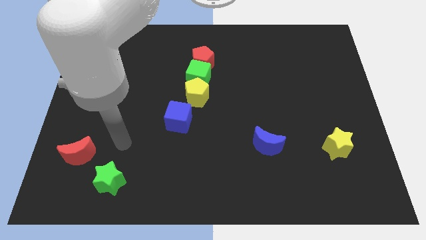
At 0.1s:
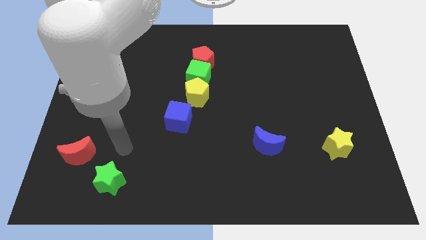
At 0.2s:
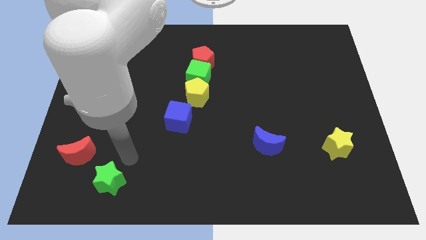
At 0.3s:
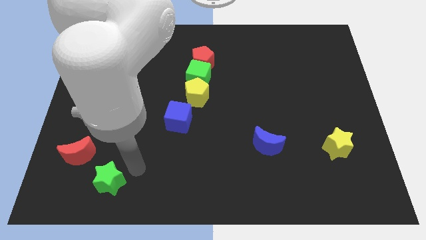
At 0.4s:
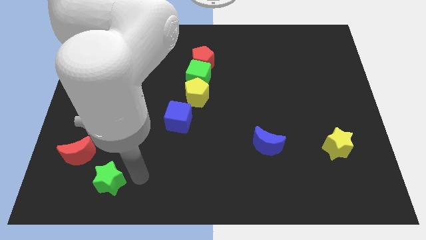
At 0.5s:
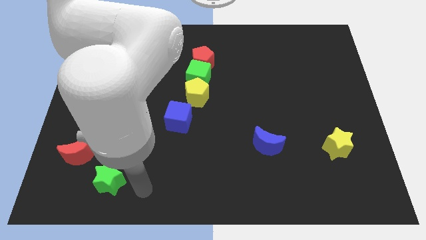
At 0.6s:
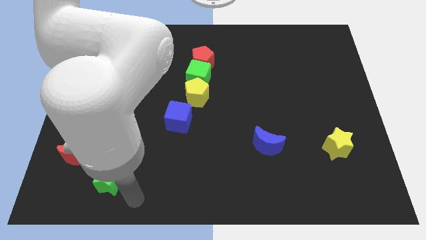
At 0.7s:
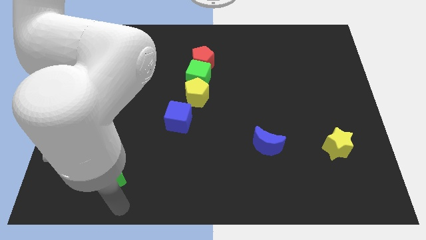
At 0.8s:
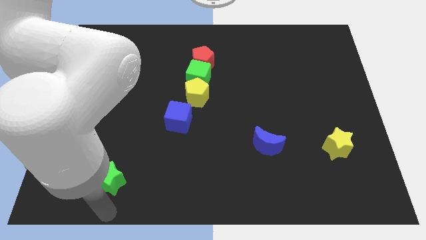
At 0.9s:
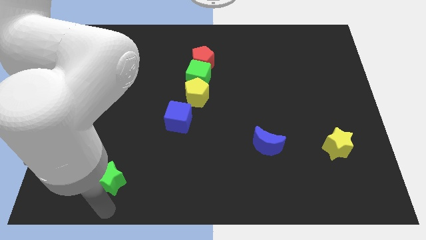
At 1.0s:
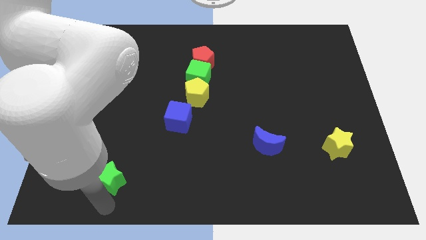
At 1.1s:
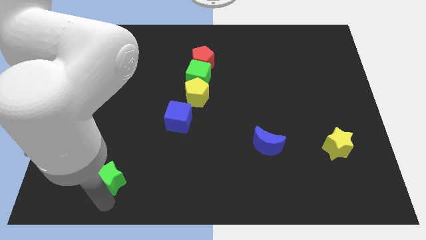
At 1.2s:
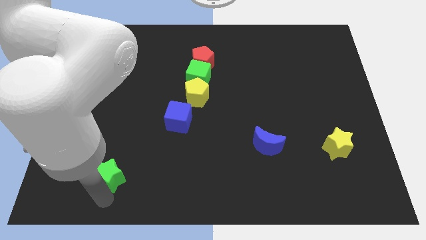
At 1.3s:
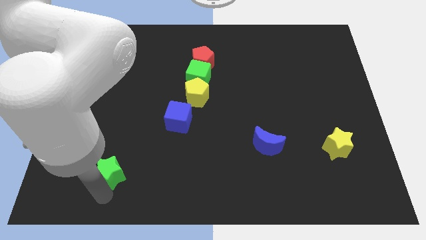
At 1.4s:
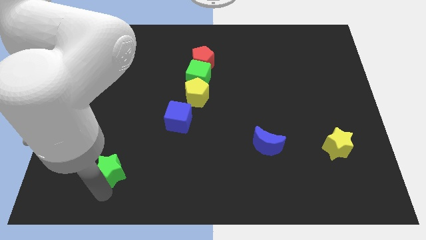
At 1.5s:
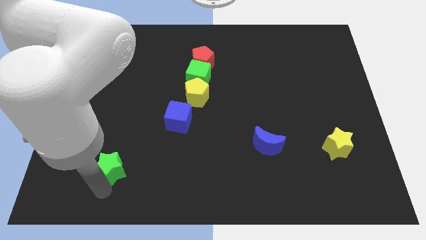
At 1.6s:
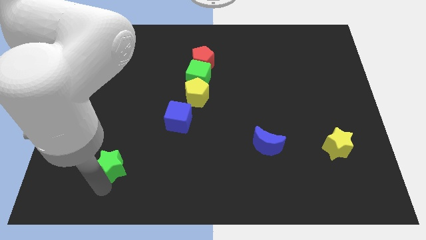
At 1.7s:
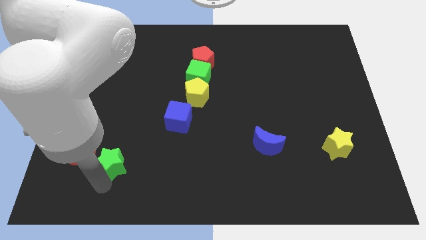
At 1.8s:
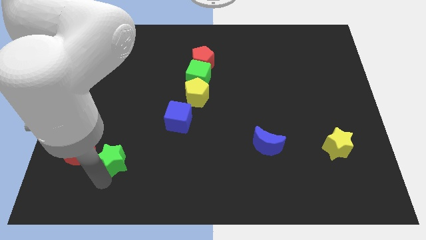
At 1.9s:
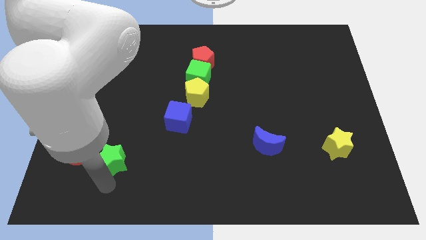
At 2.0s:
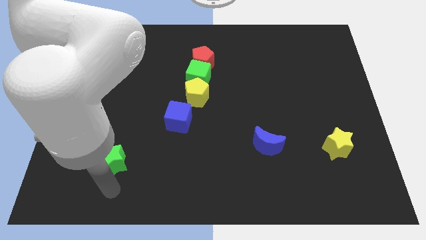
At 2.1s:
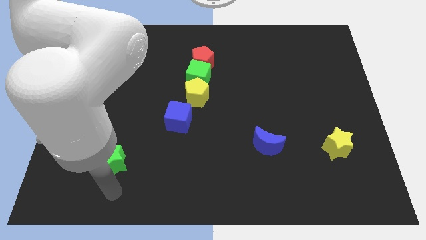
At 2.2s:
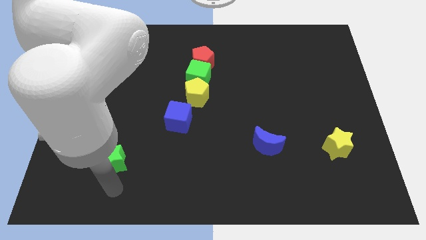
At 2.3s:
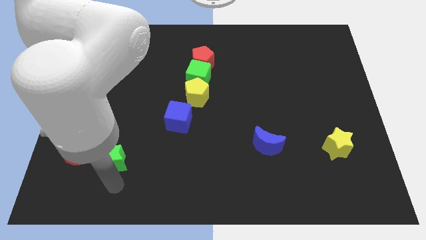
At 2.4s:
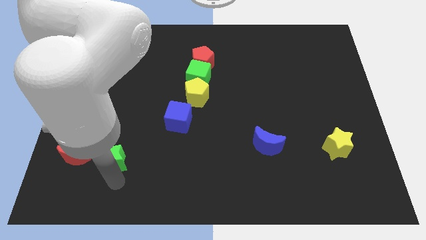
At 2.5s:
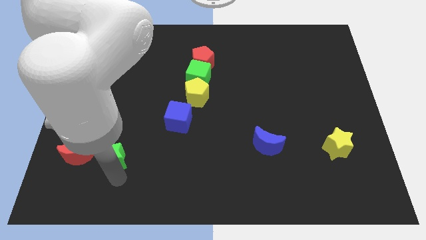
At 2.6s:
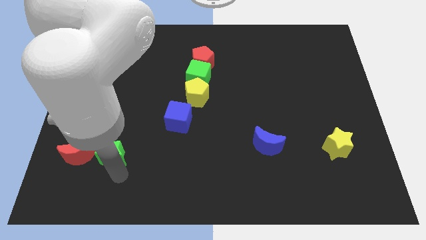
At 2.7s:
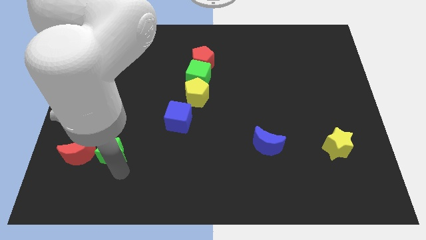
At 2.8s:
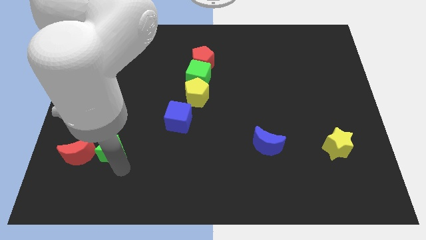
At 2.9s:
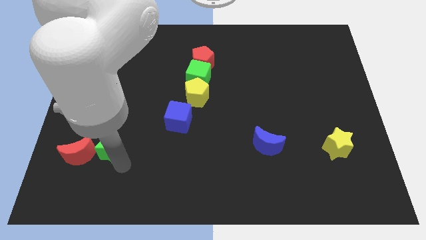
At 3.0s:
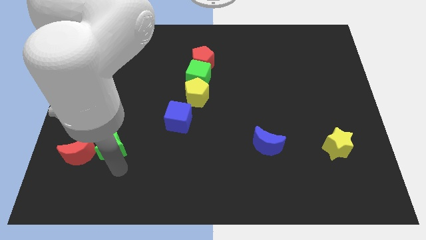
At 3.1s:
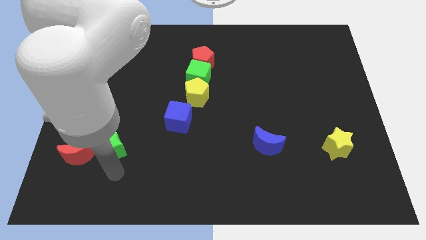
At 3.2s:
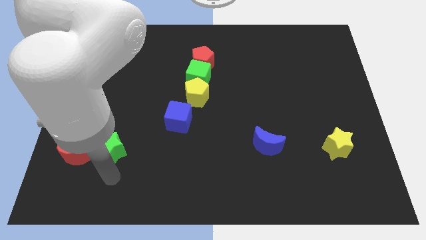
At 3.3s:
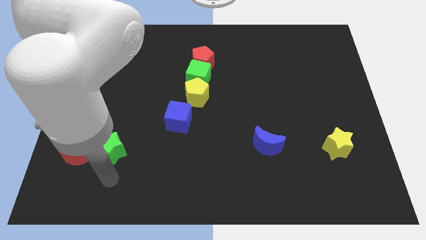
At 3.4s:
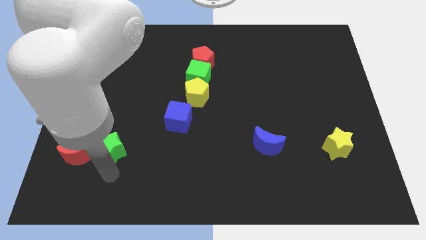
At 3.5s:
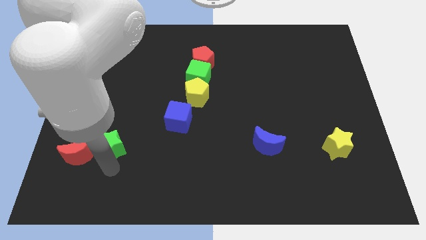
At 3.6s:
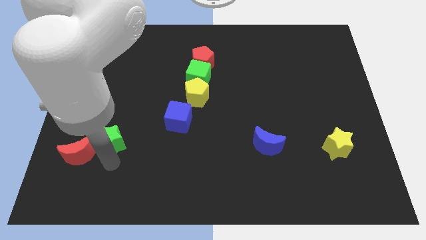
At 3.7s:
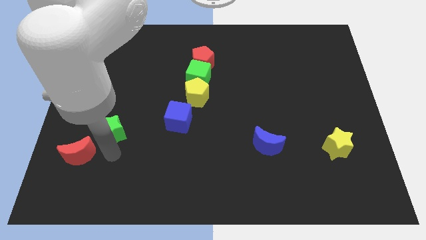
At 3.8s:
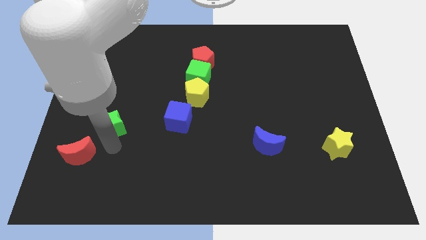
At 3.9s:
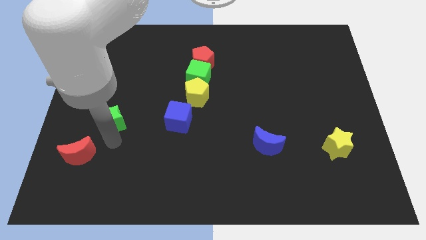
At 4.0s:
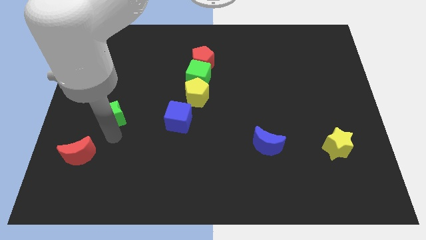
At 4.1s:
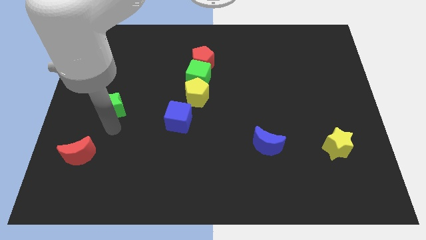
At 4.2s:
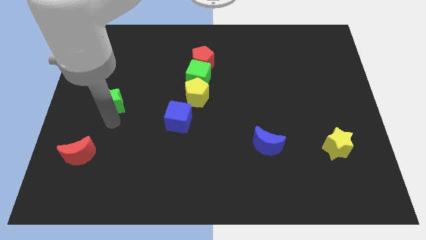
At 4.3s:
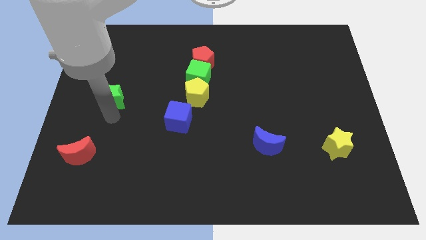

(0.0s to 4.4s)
move the green star upwards

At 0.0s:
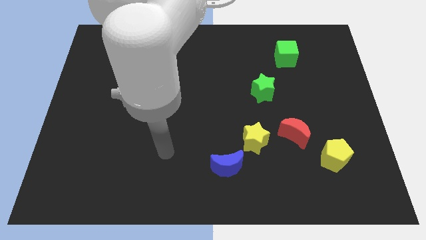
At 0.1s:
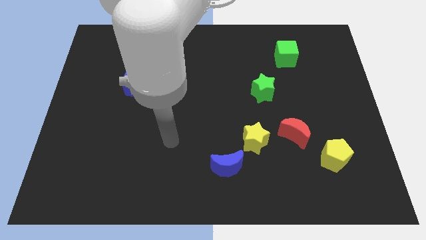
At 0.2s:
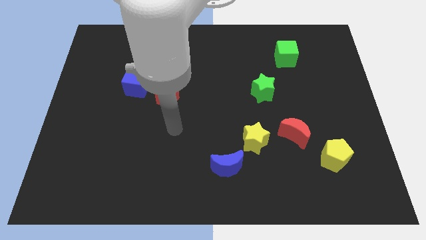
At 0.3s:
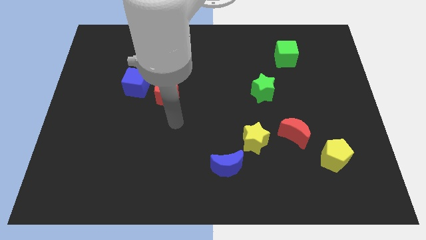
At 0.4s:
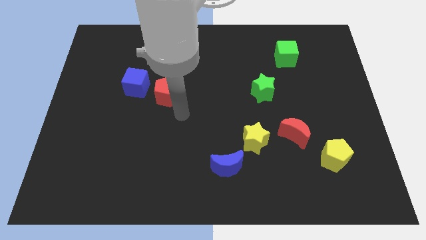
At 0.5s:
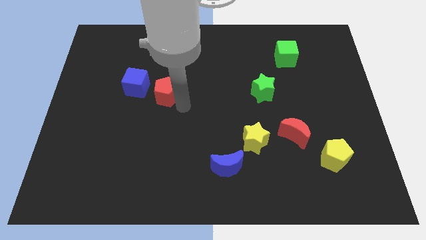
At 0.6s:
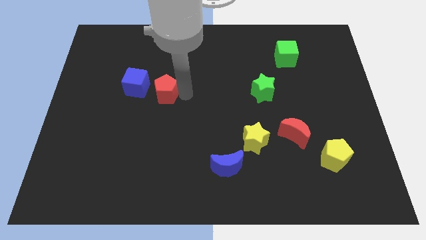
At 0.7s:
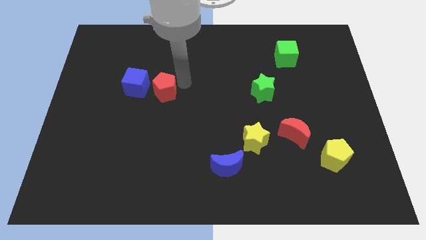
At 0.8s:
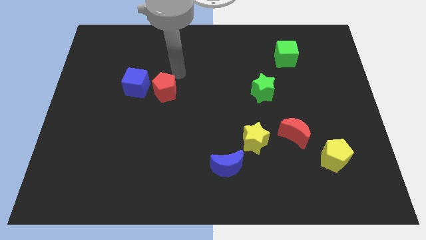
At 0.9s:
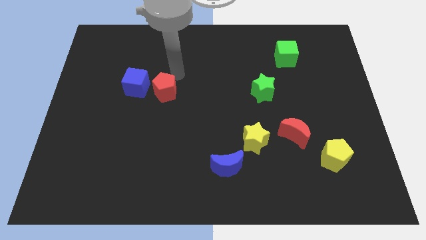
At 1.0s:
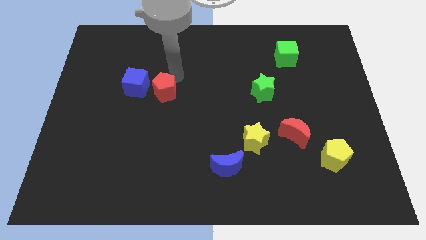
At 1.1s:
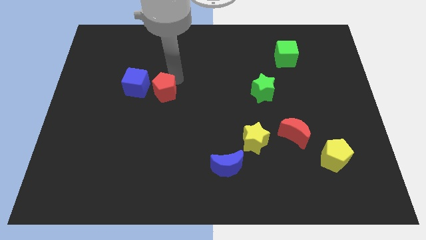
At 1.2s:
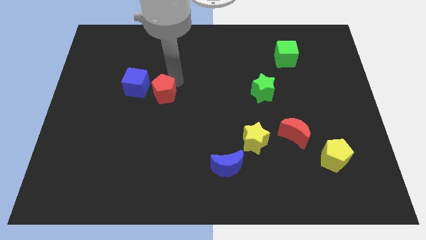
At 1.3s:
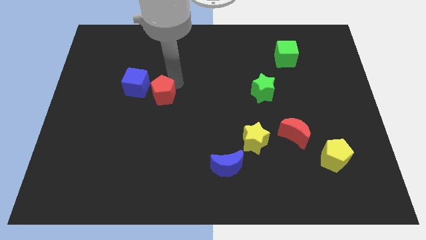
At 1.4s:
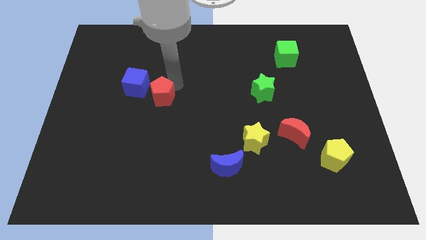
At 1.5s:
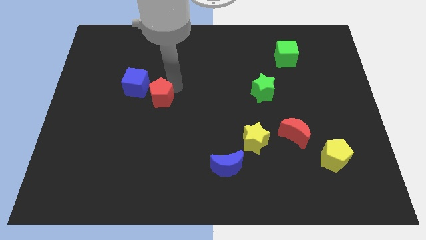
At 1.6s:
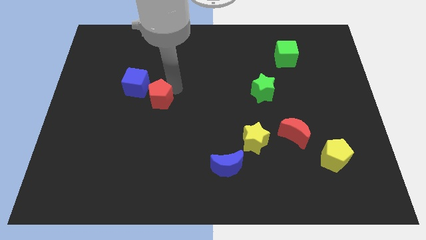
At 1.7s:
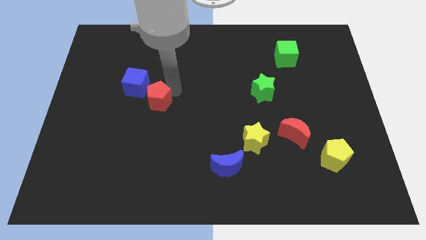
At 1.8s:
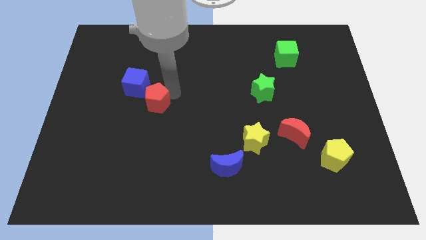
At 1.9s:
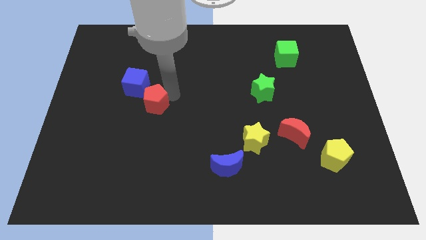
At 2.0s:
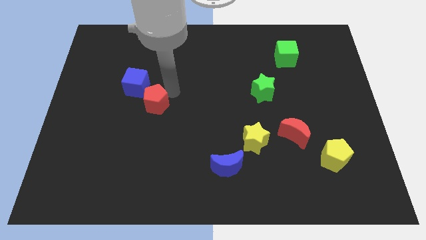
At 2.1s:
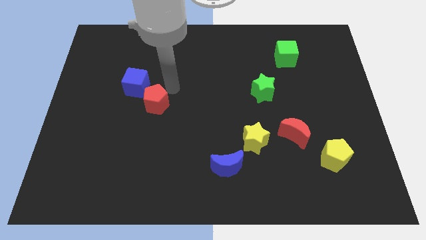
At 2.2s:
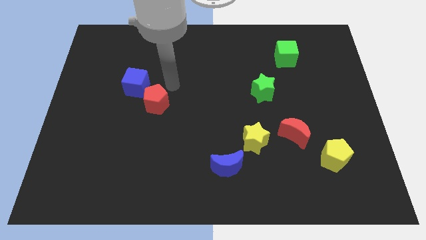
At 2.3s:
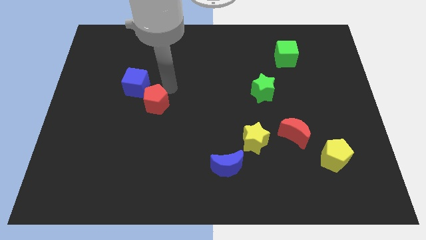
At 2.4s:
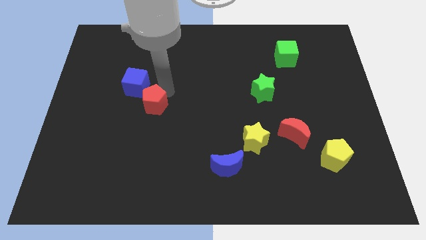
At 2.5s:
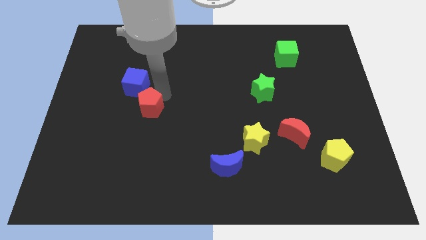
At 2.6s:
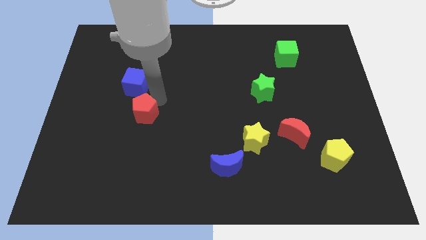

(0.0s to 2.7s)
move the red pentagon a bit down and then left

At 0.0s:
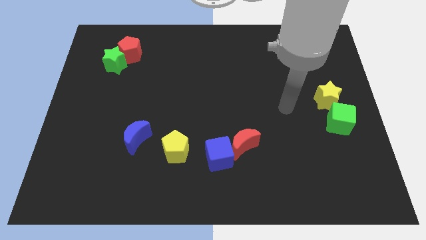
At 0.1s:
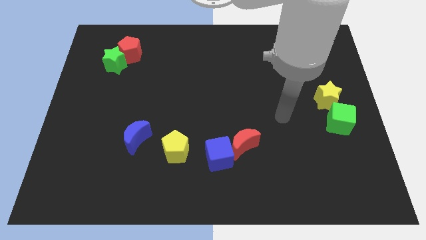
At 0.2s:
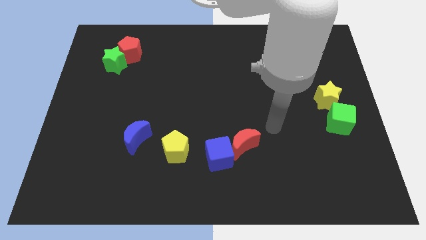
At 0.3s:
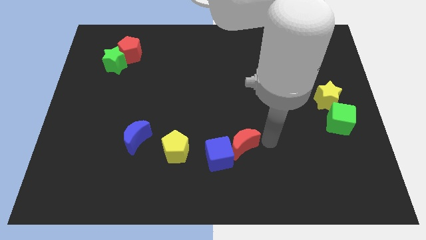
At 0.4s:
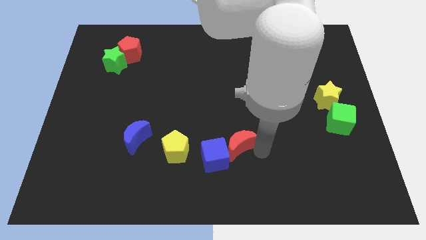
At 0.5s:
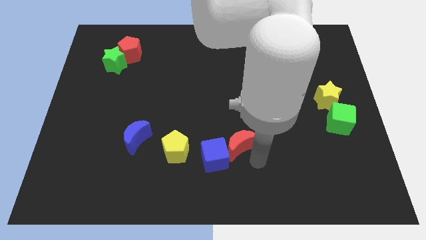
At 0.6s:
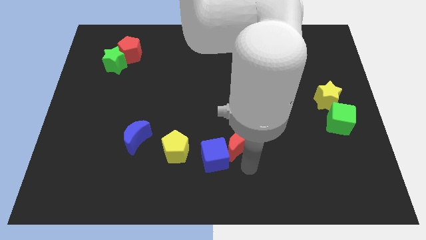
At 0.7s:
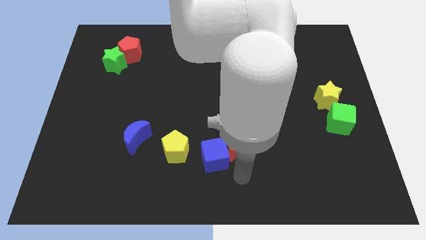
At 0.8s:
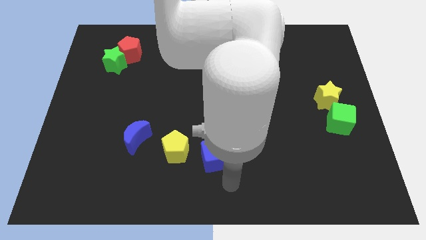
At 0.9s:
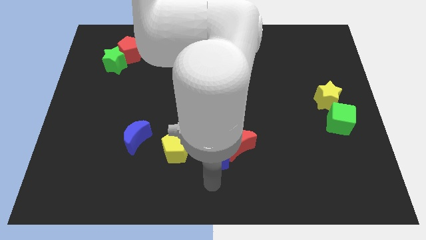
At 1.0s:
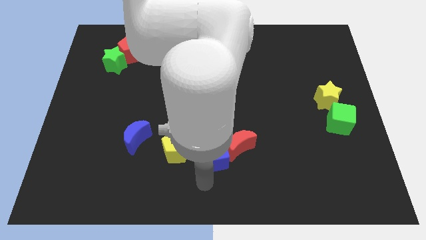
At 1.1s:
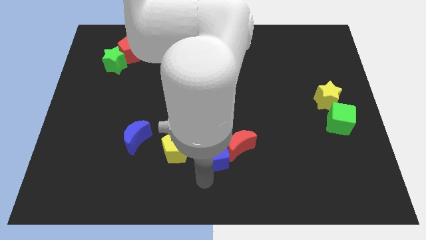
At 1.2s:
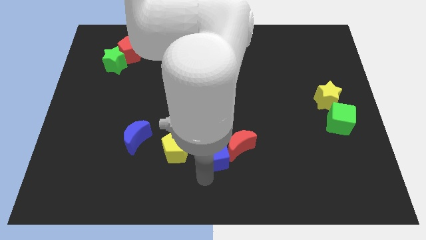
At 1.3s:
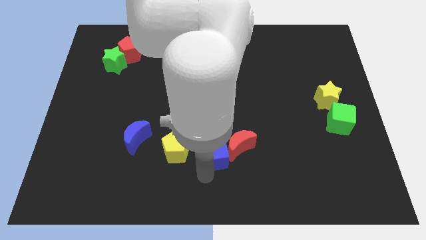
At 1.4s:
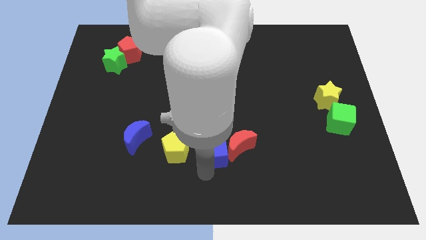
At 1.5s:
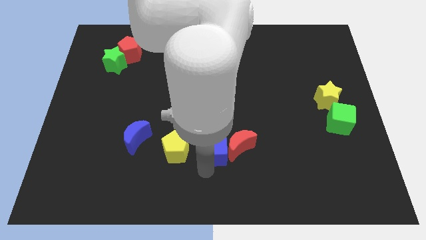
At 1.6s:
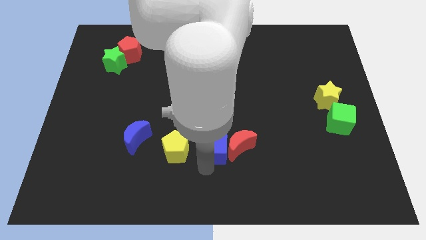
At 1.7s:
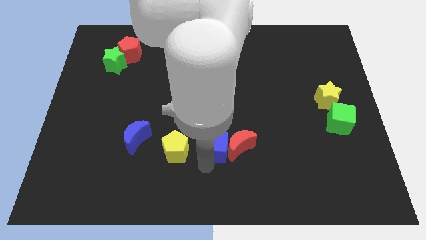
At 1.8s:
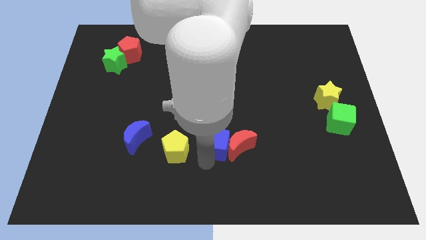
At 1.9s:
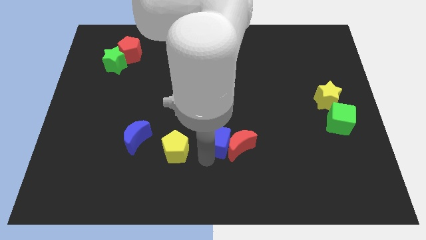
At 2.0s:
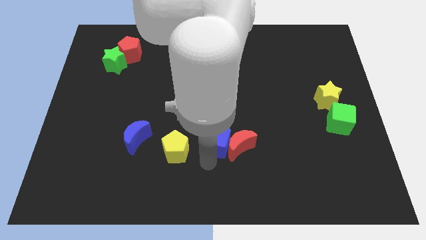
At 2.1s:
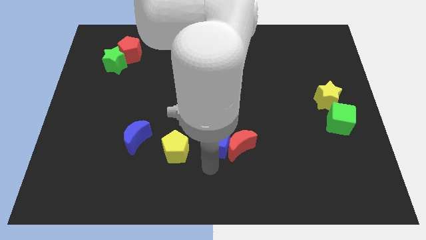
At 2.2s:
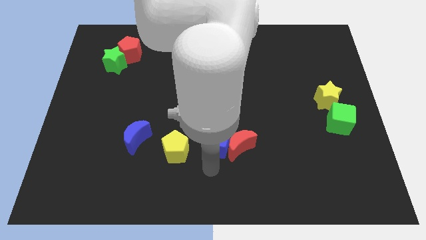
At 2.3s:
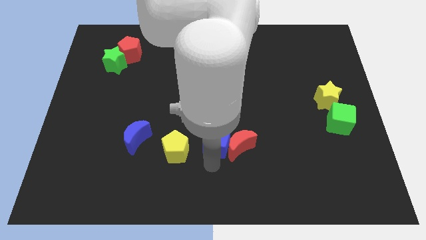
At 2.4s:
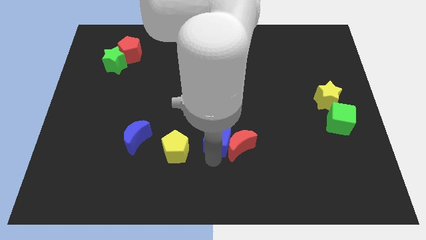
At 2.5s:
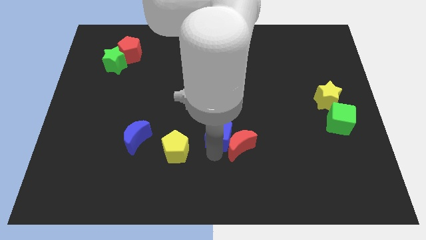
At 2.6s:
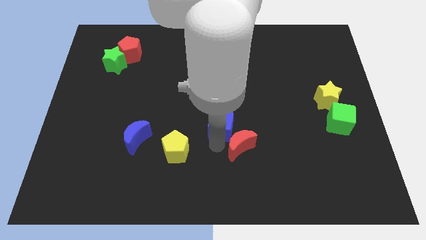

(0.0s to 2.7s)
slightly move the blue cube up
